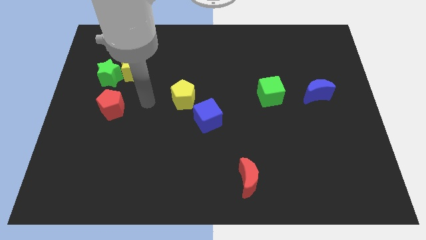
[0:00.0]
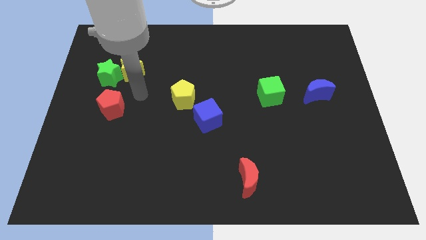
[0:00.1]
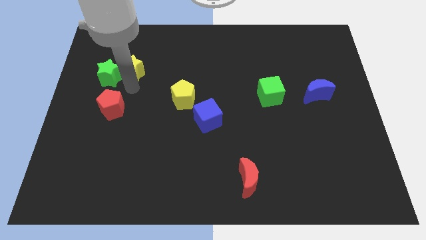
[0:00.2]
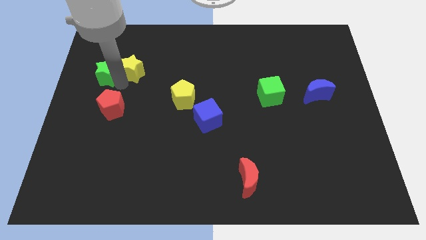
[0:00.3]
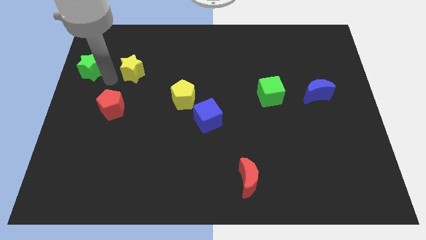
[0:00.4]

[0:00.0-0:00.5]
separate the yellow star from the green star

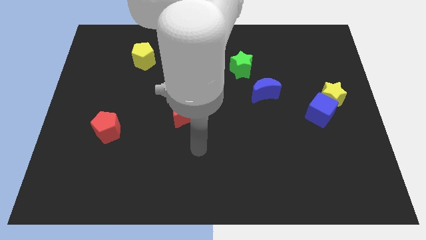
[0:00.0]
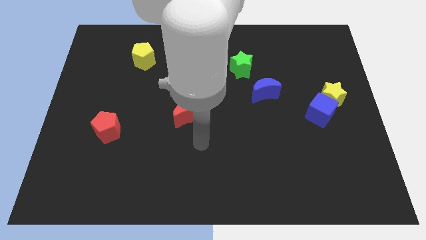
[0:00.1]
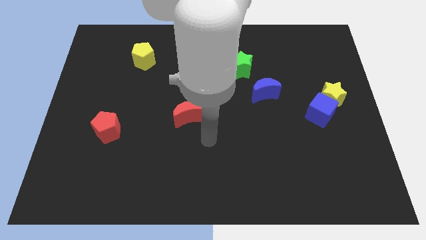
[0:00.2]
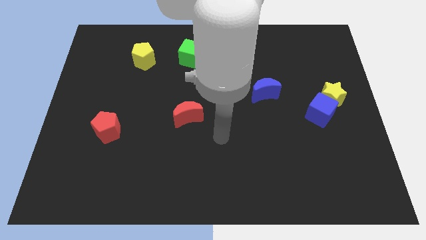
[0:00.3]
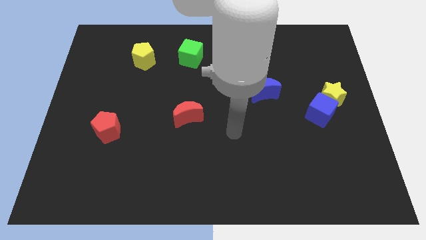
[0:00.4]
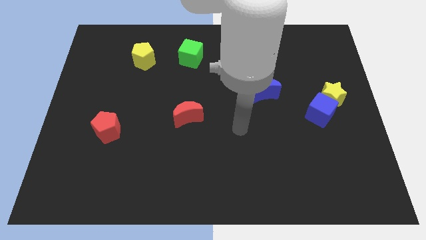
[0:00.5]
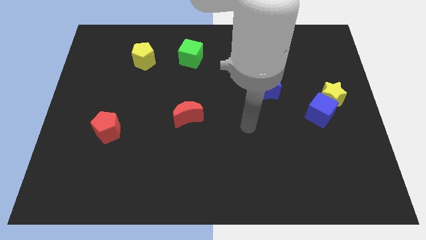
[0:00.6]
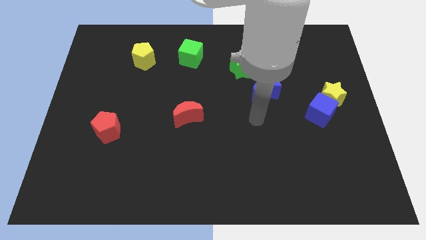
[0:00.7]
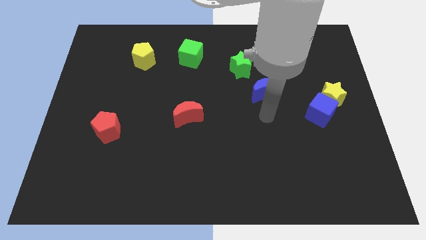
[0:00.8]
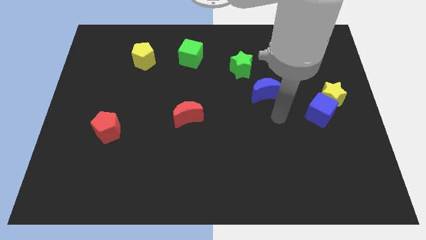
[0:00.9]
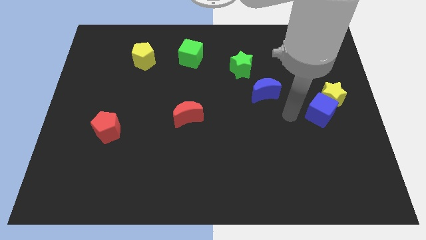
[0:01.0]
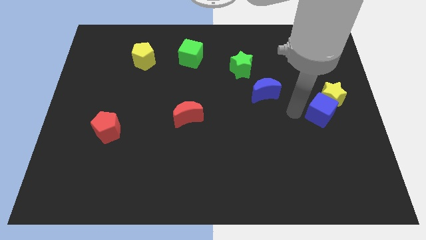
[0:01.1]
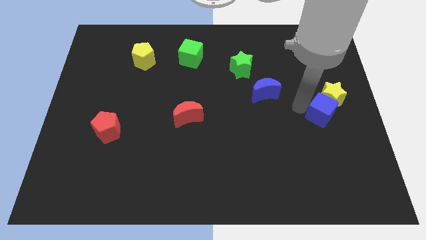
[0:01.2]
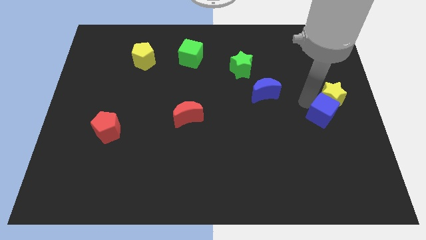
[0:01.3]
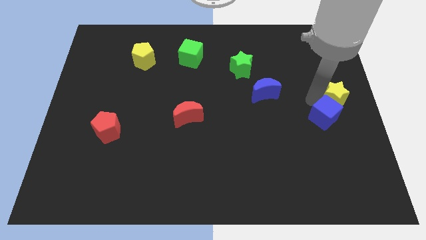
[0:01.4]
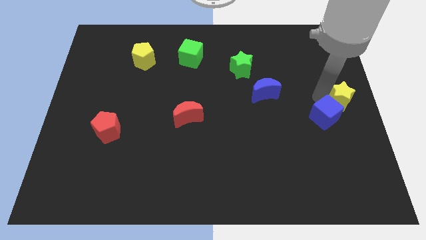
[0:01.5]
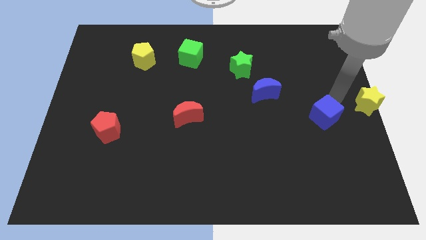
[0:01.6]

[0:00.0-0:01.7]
pull the blue cube apart from the yellow star

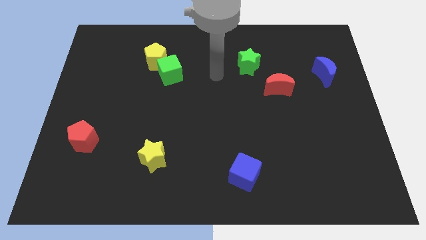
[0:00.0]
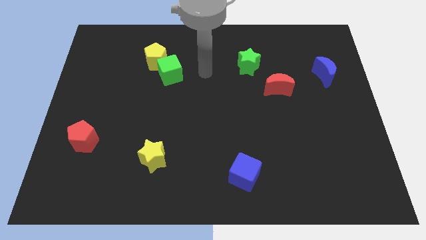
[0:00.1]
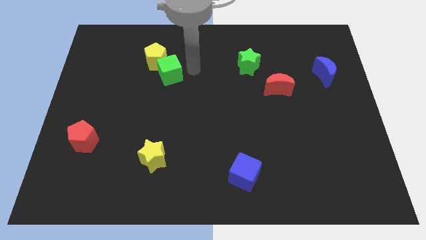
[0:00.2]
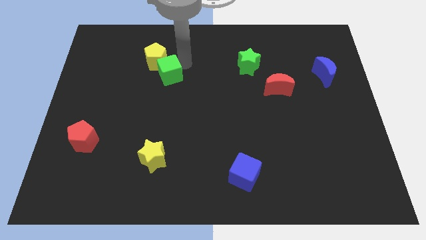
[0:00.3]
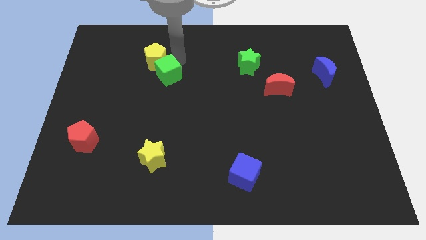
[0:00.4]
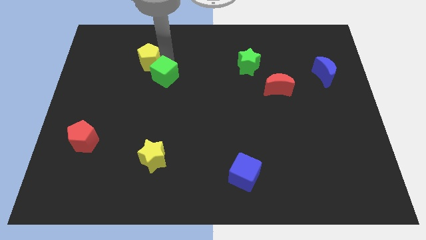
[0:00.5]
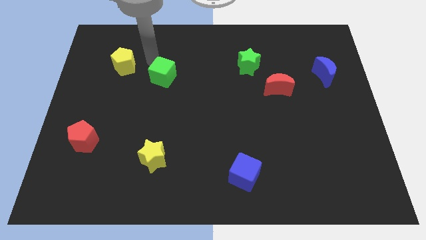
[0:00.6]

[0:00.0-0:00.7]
pull the green cube apart from the yellow pentagon

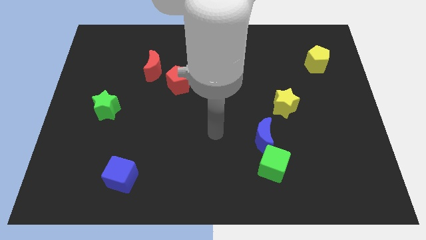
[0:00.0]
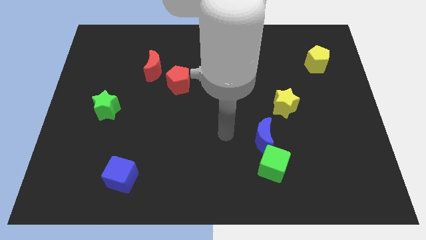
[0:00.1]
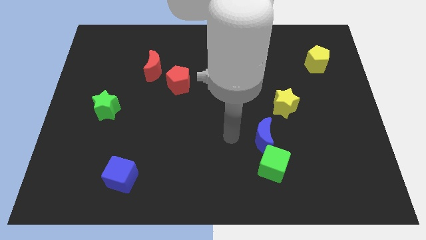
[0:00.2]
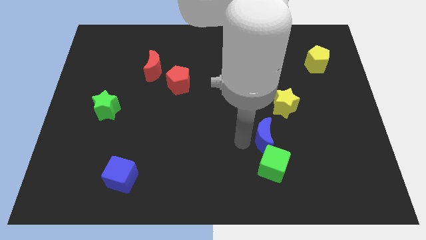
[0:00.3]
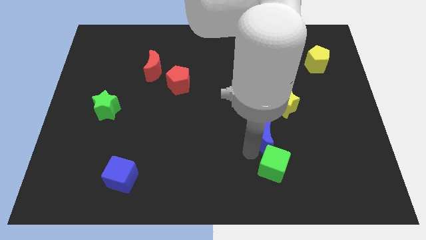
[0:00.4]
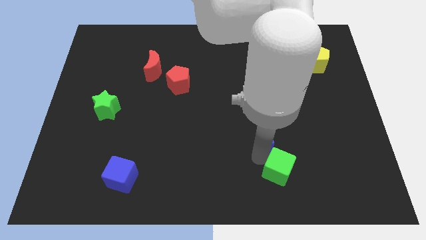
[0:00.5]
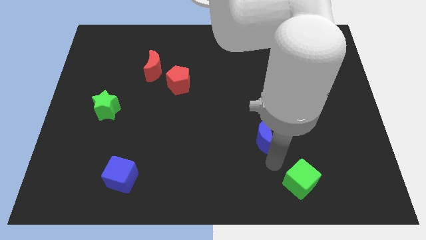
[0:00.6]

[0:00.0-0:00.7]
separate the blue moon from the green cube

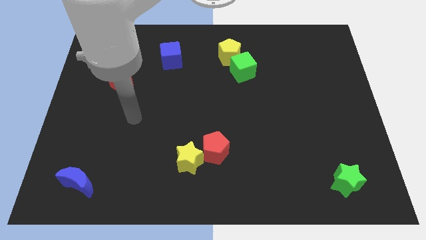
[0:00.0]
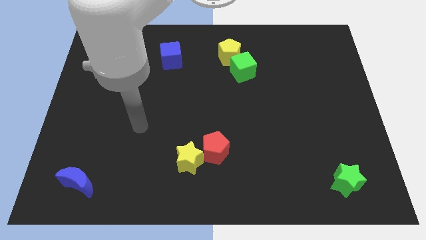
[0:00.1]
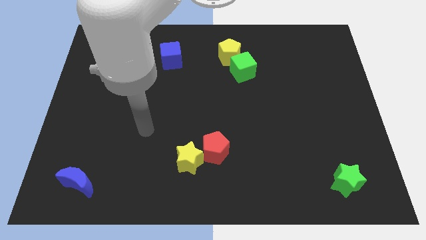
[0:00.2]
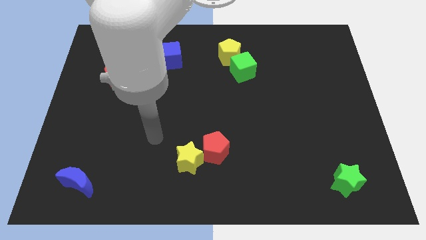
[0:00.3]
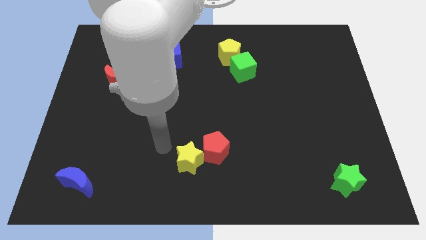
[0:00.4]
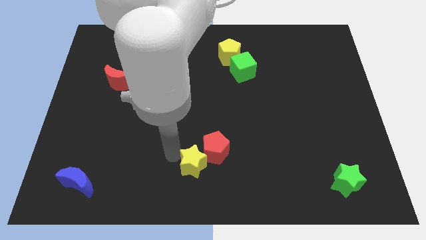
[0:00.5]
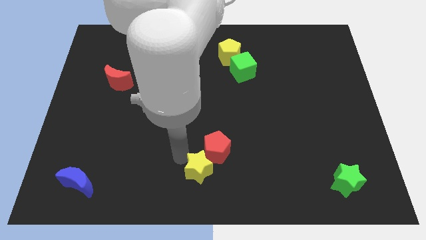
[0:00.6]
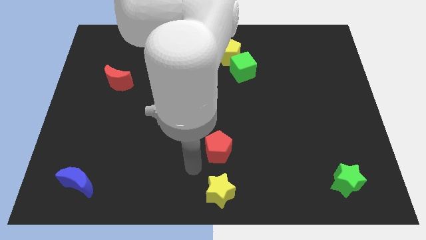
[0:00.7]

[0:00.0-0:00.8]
move the red pentagon away from the yellow star

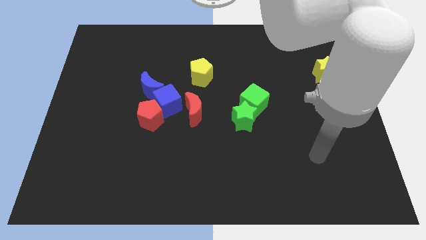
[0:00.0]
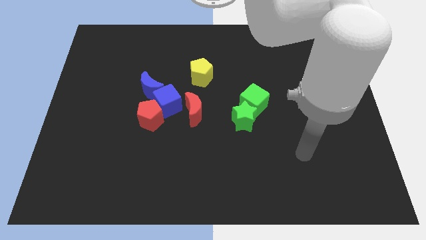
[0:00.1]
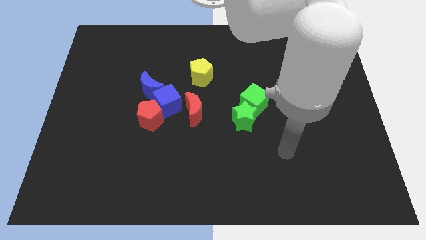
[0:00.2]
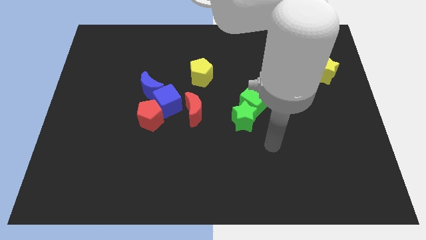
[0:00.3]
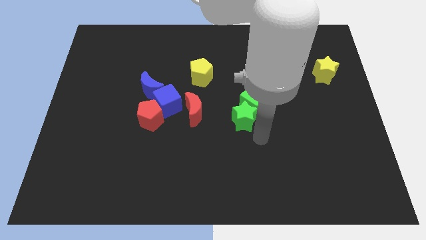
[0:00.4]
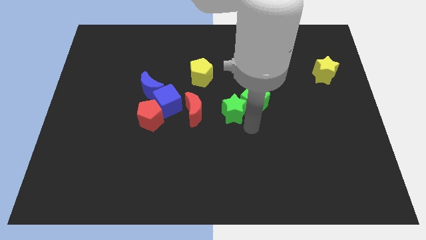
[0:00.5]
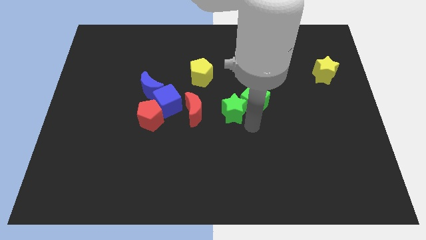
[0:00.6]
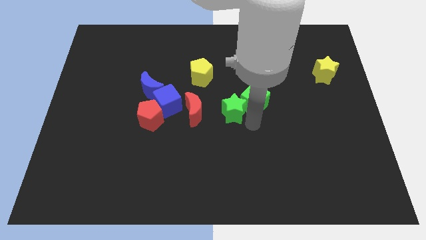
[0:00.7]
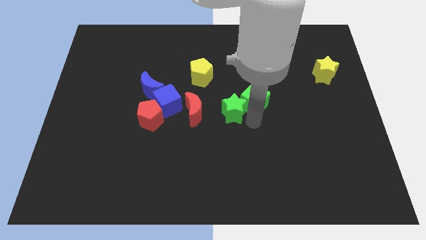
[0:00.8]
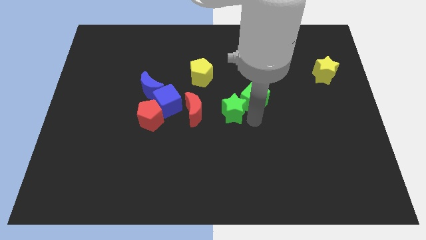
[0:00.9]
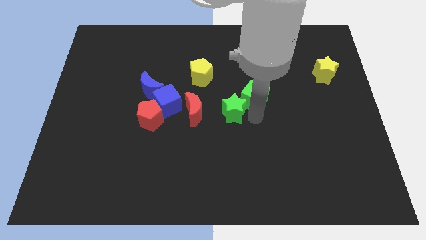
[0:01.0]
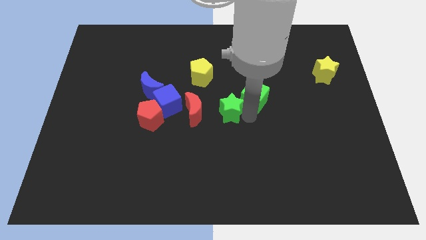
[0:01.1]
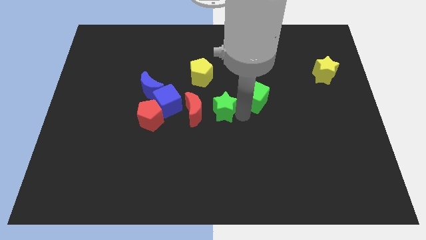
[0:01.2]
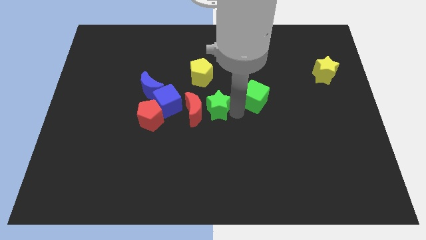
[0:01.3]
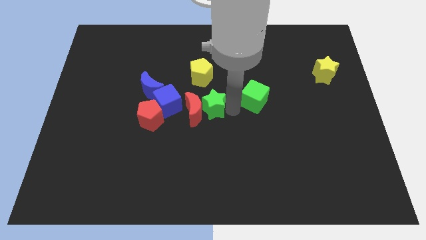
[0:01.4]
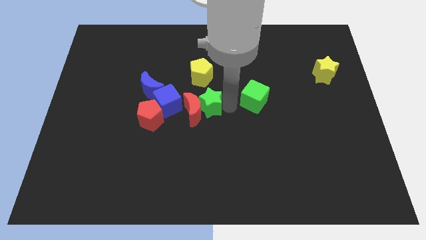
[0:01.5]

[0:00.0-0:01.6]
separate the green cube from the green star

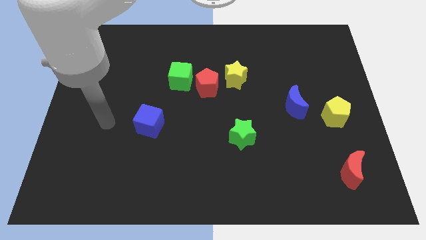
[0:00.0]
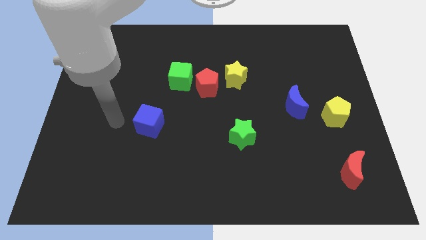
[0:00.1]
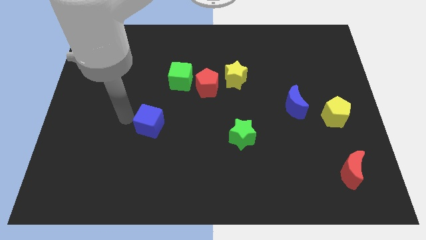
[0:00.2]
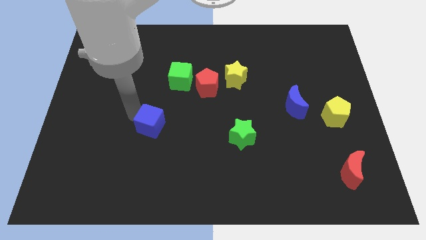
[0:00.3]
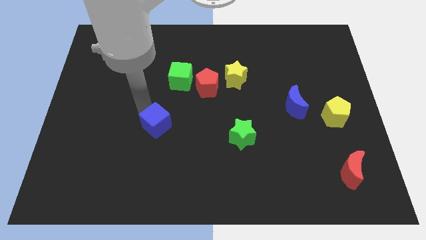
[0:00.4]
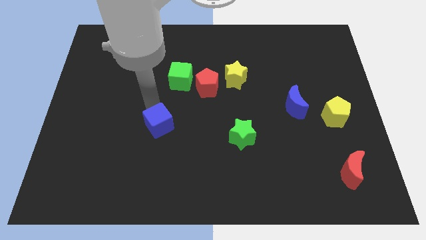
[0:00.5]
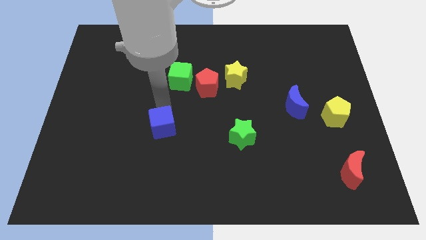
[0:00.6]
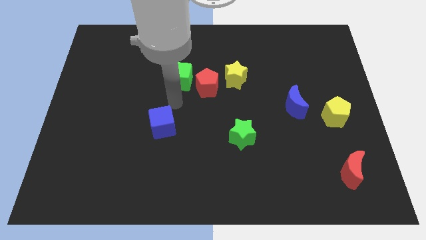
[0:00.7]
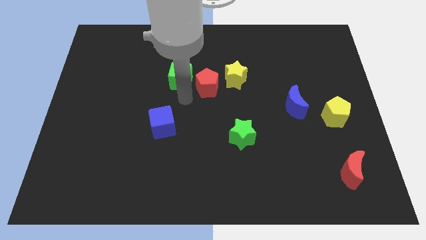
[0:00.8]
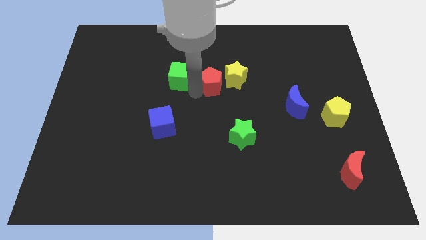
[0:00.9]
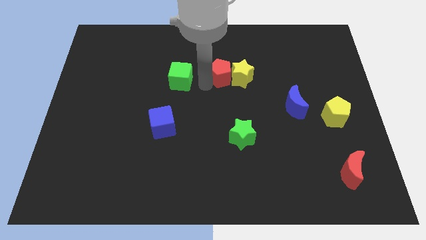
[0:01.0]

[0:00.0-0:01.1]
move the green cube away from the red pentagon

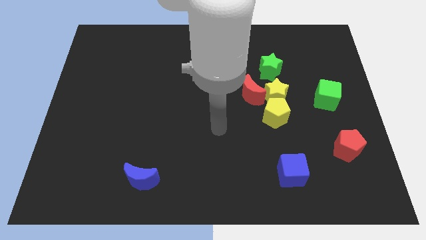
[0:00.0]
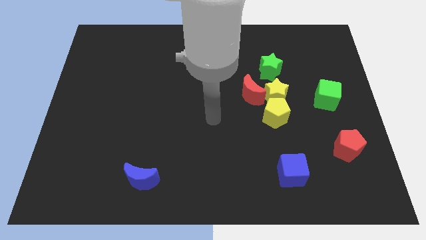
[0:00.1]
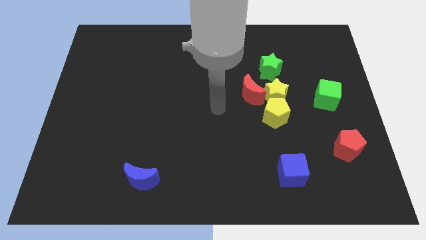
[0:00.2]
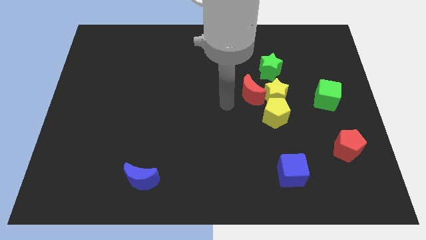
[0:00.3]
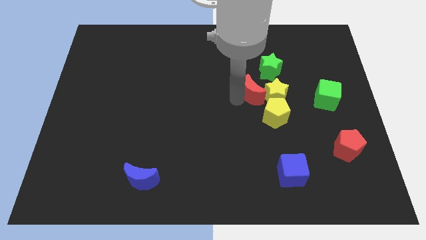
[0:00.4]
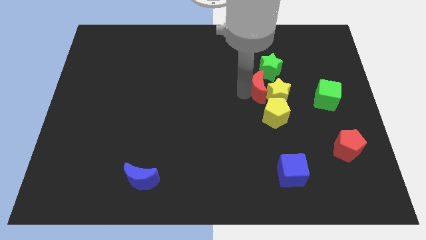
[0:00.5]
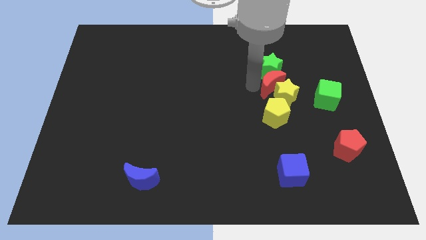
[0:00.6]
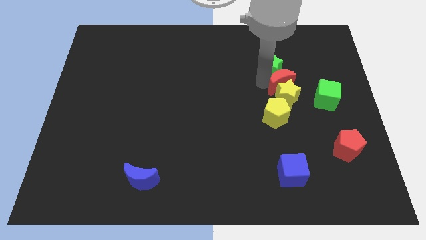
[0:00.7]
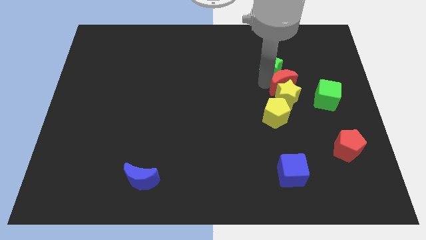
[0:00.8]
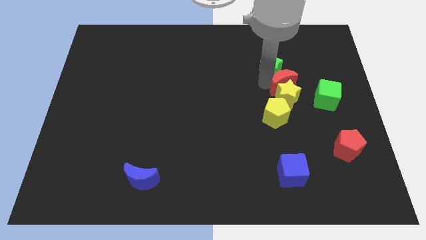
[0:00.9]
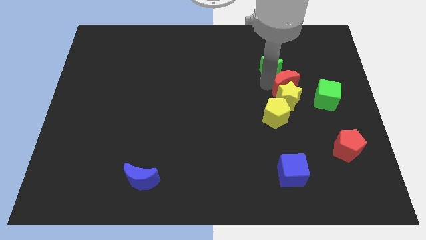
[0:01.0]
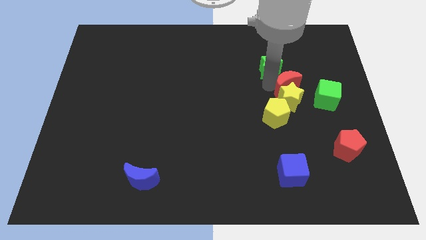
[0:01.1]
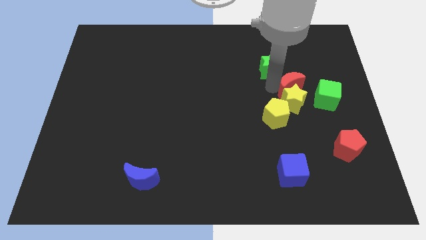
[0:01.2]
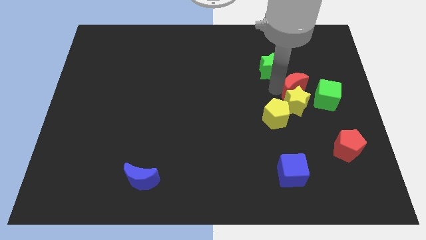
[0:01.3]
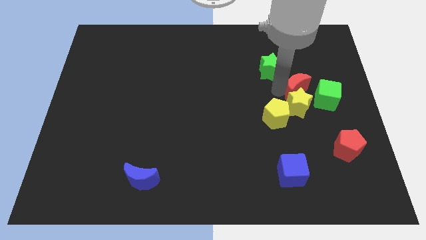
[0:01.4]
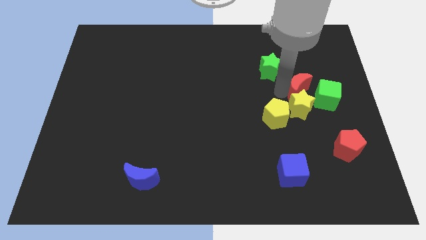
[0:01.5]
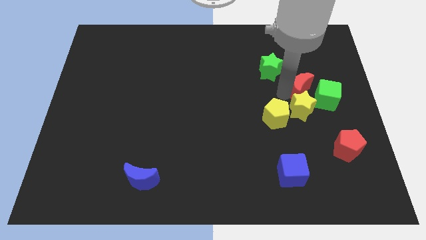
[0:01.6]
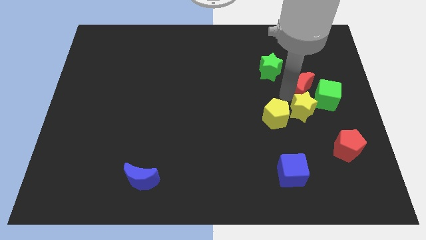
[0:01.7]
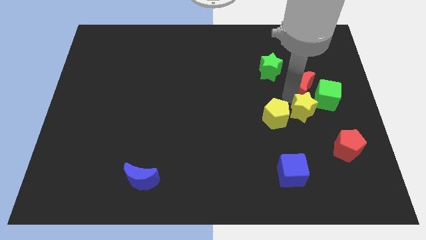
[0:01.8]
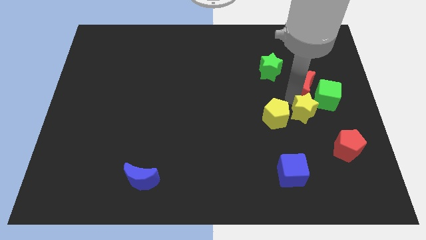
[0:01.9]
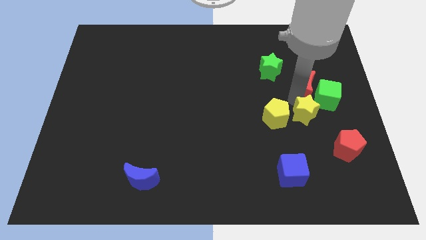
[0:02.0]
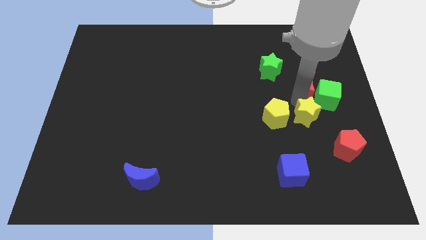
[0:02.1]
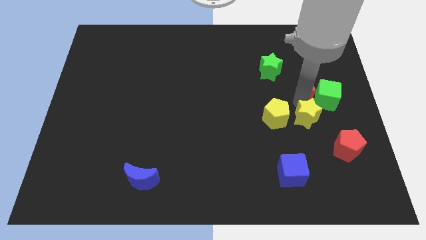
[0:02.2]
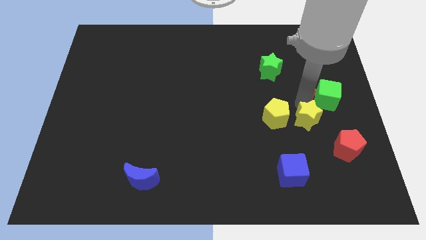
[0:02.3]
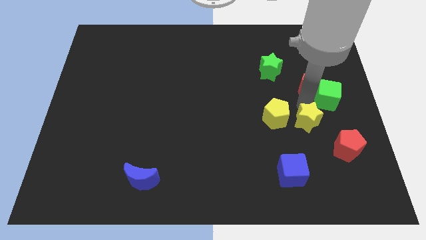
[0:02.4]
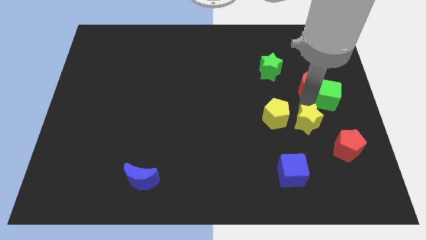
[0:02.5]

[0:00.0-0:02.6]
pull the yellow star apart from the group
